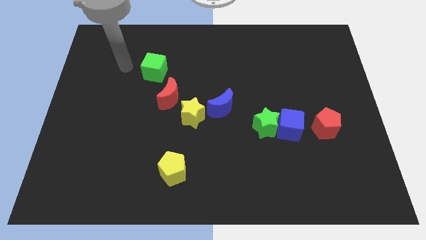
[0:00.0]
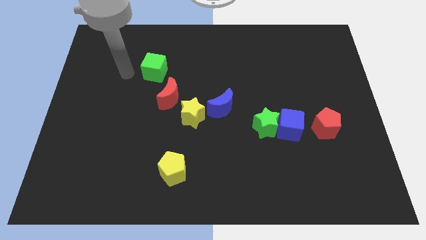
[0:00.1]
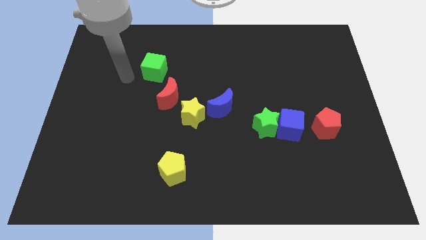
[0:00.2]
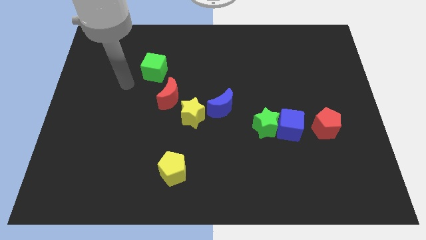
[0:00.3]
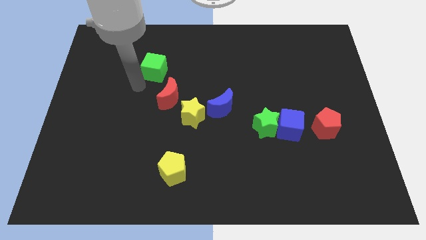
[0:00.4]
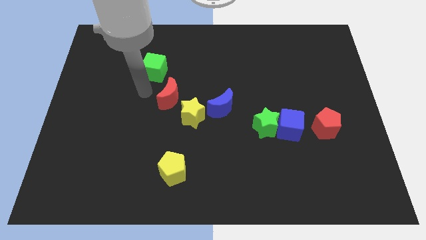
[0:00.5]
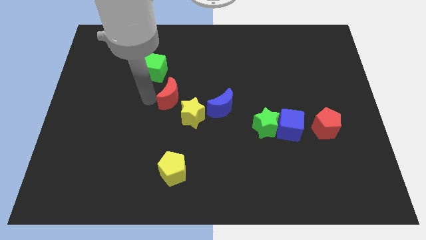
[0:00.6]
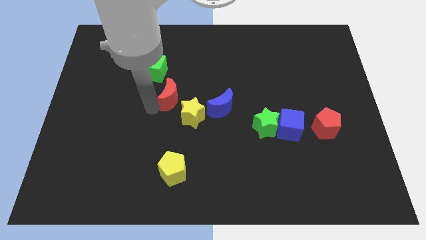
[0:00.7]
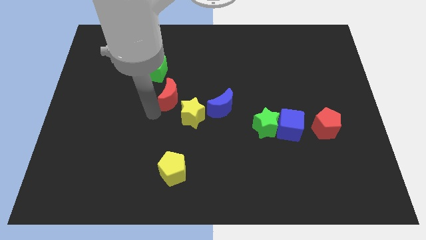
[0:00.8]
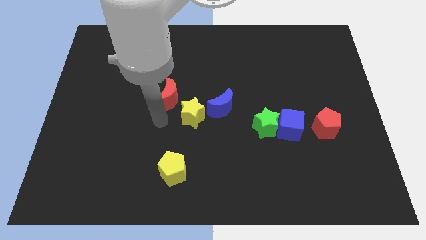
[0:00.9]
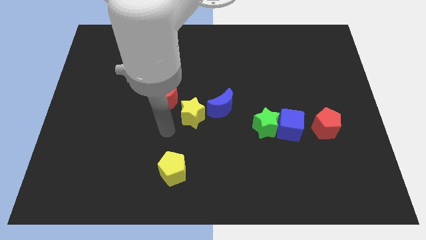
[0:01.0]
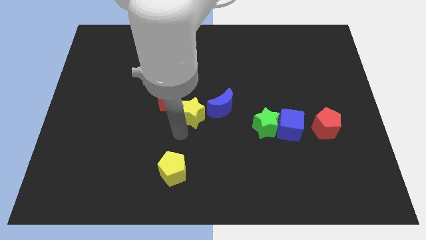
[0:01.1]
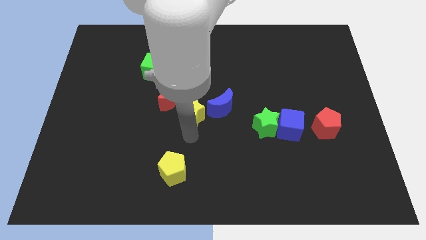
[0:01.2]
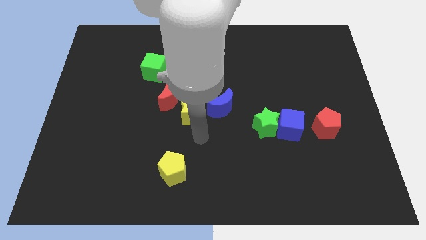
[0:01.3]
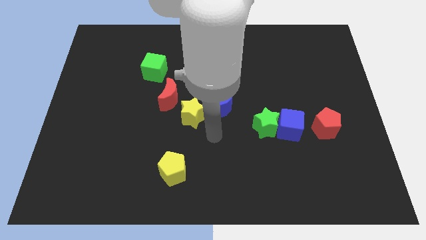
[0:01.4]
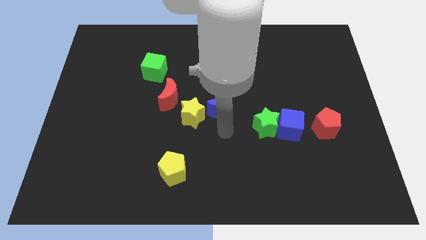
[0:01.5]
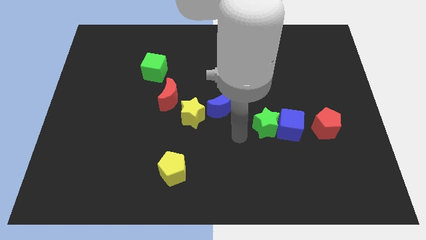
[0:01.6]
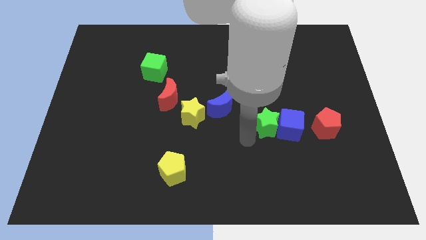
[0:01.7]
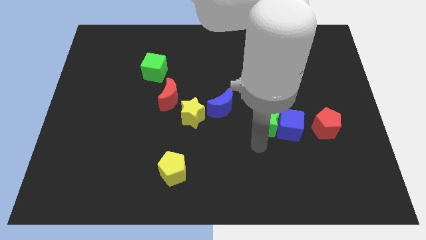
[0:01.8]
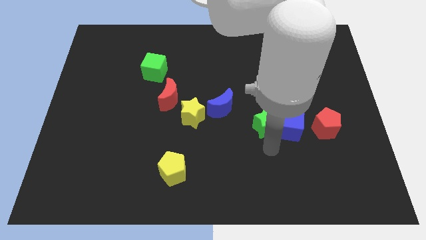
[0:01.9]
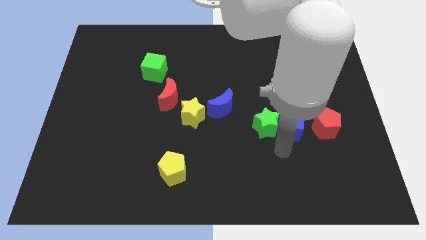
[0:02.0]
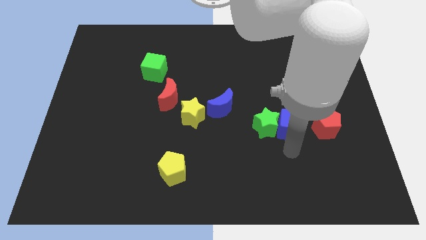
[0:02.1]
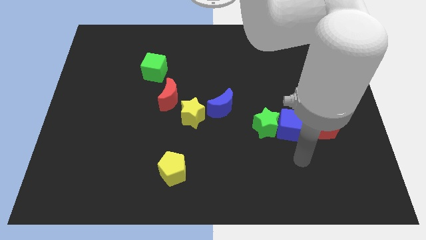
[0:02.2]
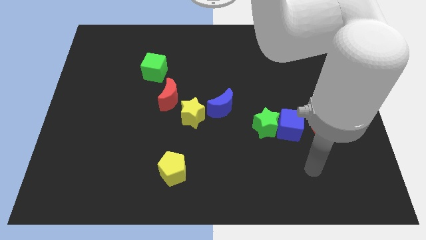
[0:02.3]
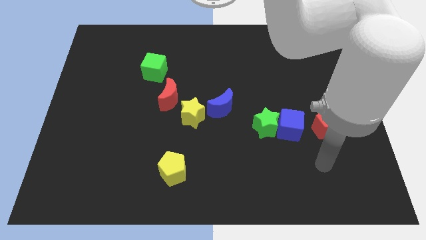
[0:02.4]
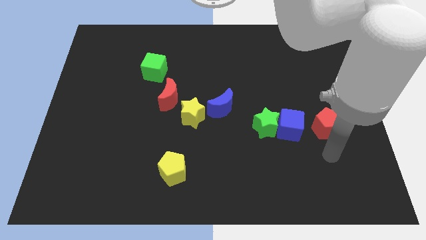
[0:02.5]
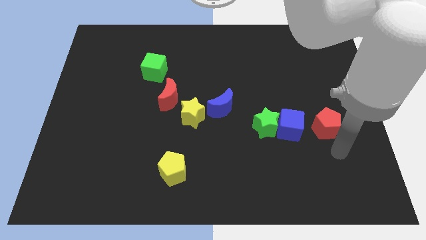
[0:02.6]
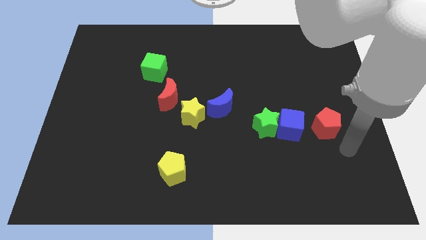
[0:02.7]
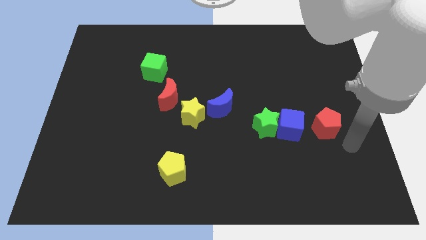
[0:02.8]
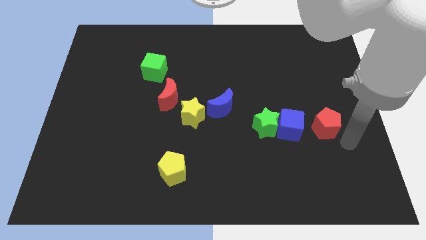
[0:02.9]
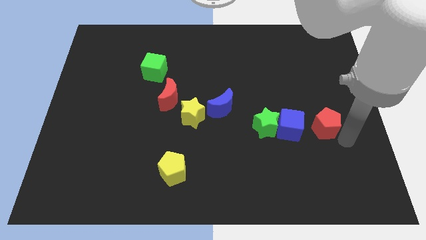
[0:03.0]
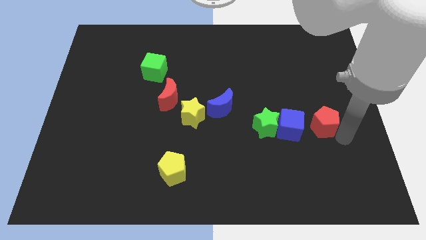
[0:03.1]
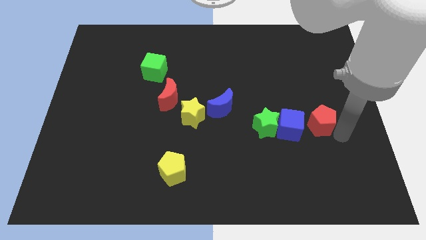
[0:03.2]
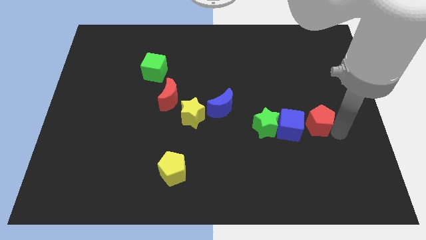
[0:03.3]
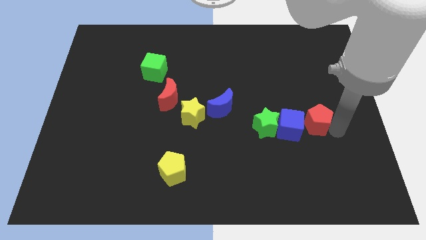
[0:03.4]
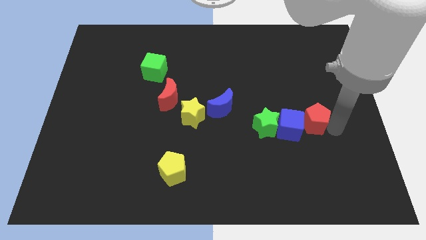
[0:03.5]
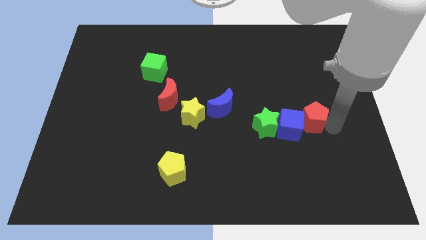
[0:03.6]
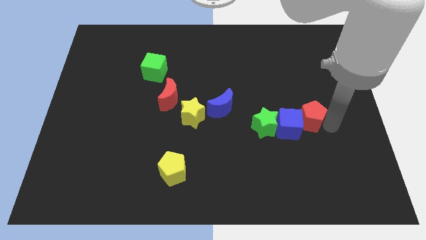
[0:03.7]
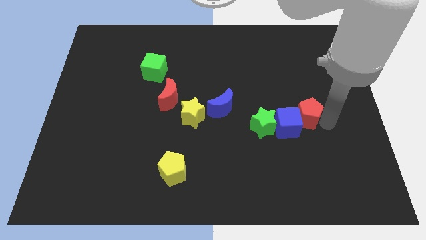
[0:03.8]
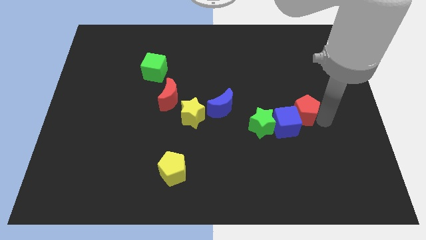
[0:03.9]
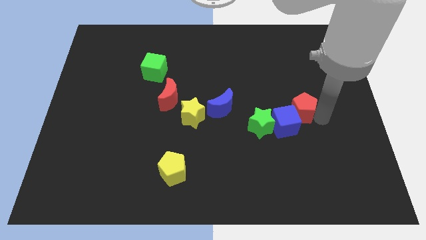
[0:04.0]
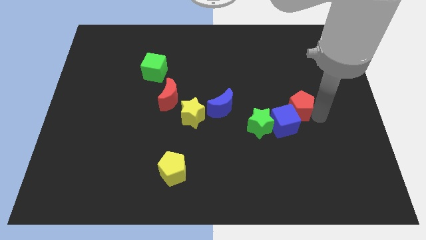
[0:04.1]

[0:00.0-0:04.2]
slightly slide the red pentagon up and left diagonally

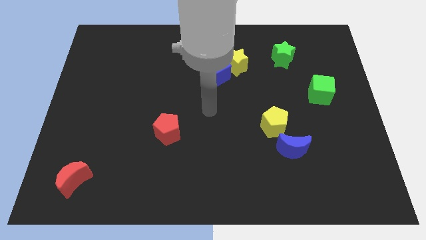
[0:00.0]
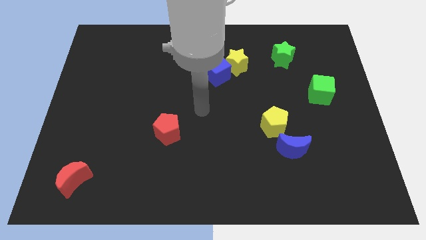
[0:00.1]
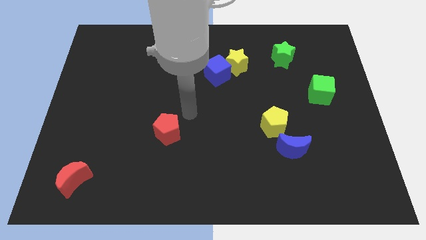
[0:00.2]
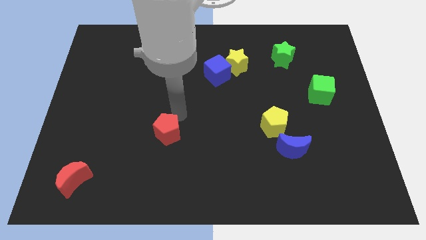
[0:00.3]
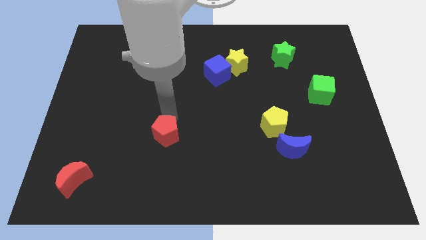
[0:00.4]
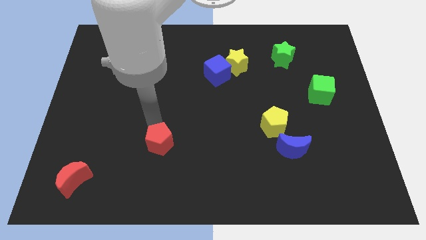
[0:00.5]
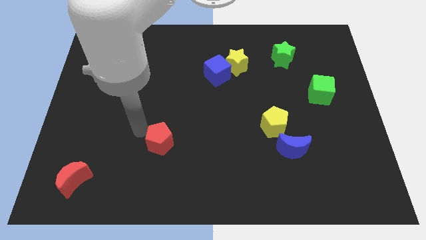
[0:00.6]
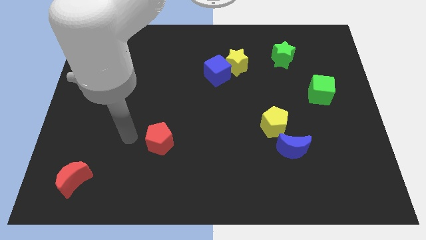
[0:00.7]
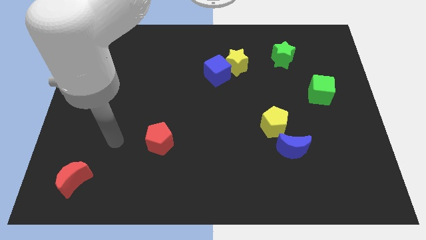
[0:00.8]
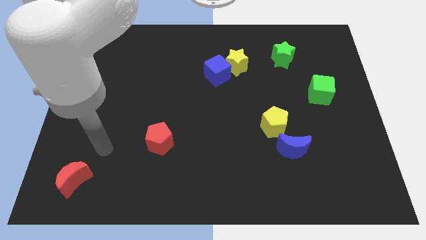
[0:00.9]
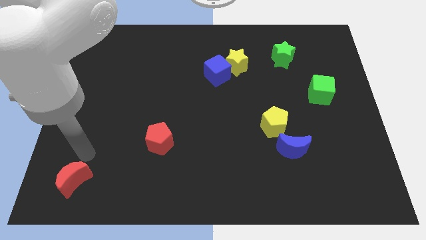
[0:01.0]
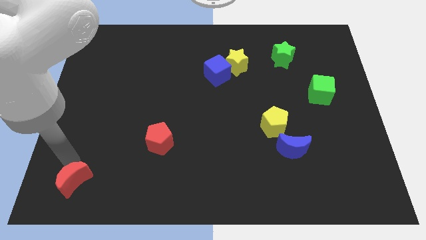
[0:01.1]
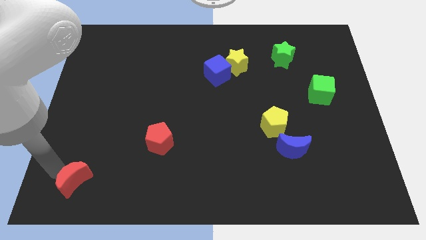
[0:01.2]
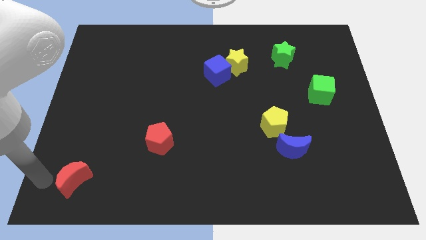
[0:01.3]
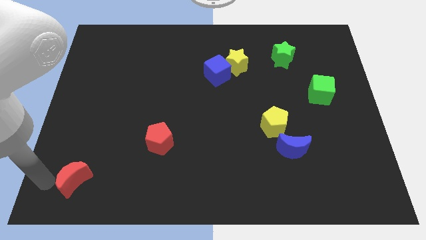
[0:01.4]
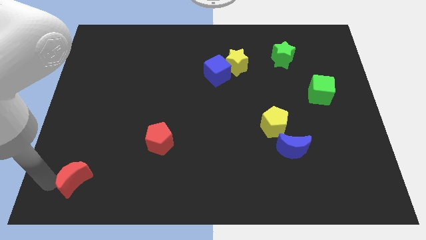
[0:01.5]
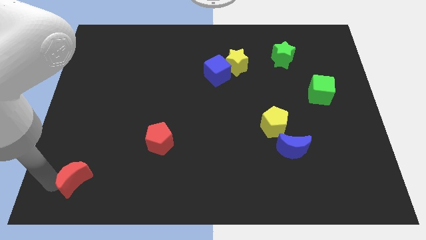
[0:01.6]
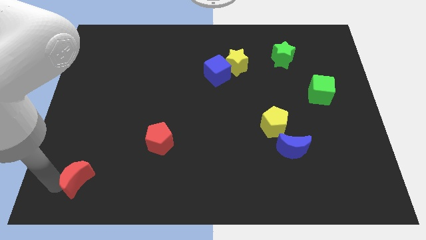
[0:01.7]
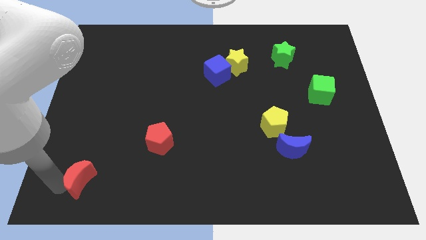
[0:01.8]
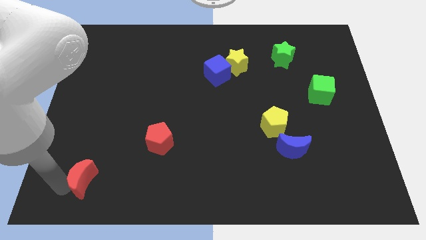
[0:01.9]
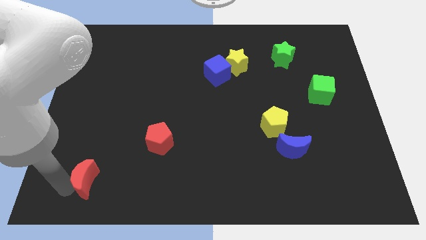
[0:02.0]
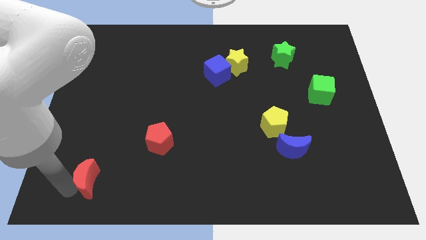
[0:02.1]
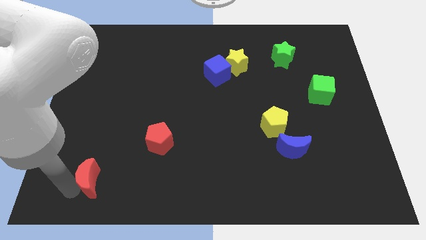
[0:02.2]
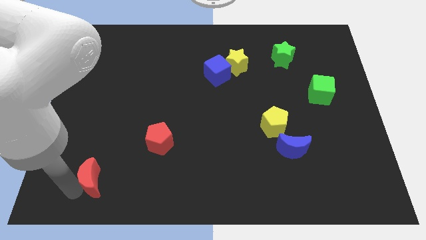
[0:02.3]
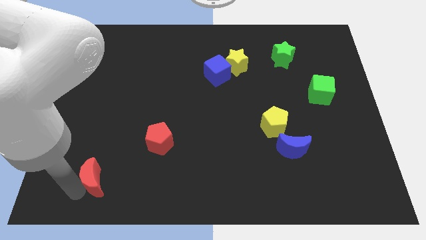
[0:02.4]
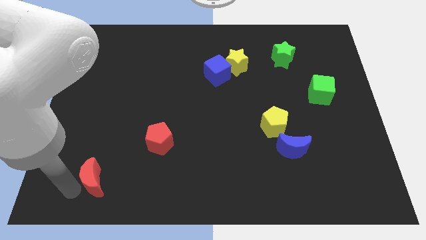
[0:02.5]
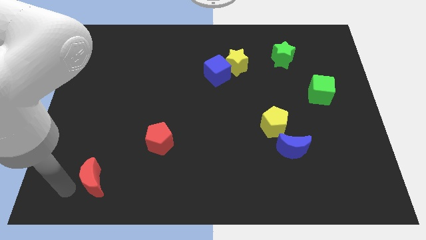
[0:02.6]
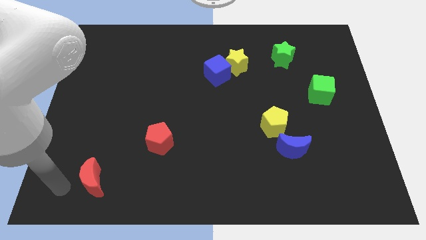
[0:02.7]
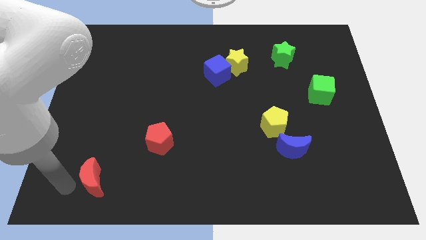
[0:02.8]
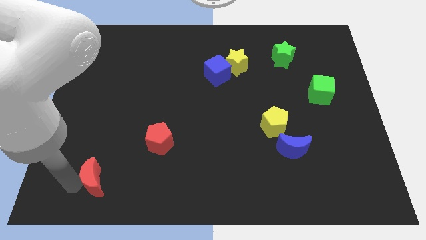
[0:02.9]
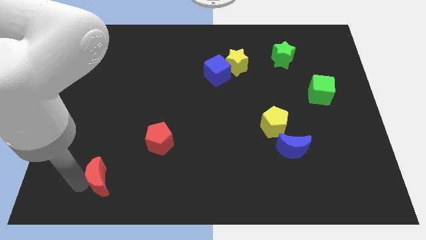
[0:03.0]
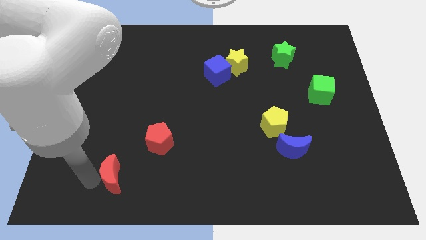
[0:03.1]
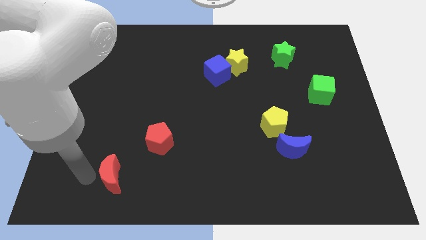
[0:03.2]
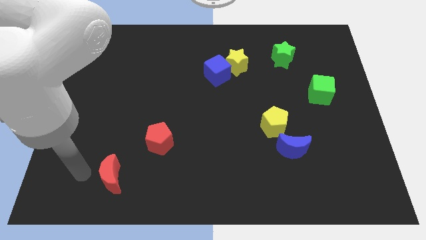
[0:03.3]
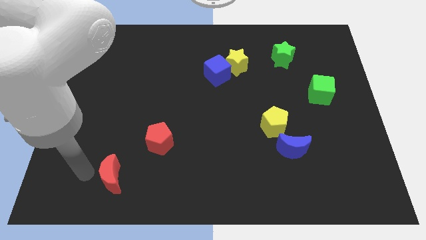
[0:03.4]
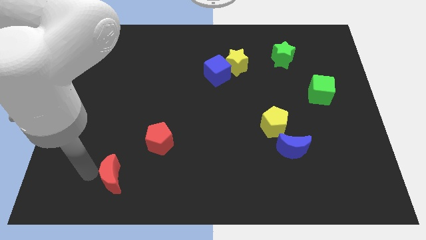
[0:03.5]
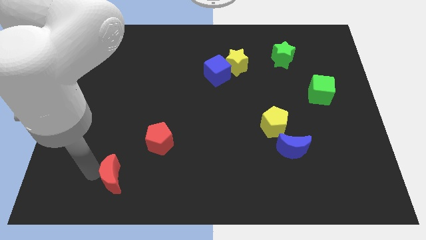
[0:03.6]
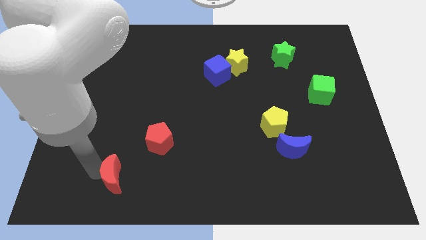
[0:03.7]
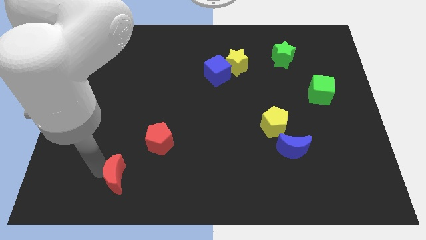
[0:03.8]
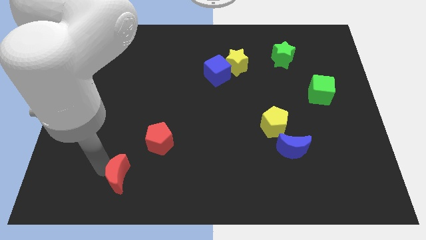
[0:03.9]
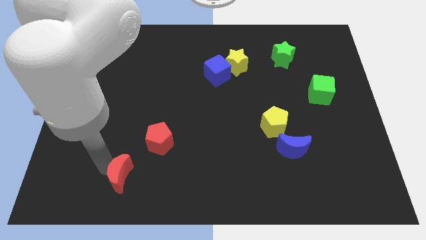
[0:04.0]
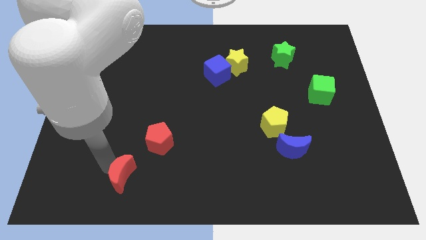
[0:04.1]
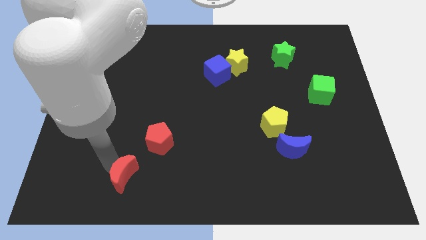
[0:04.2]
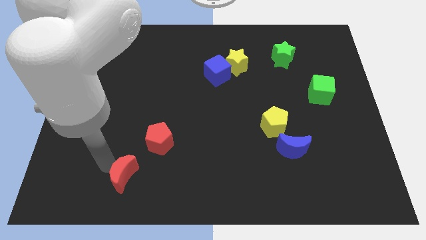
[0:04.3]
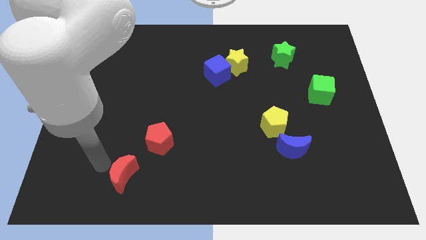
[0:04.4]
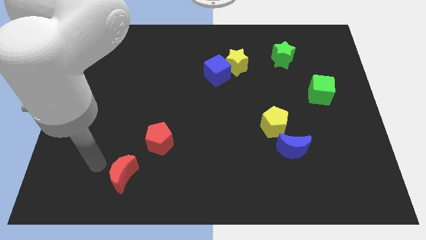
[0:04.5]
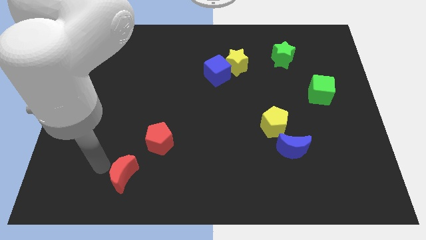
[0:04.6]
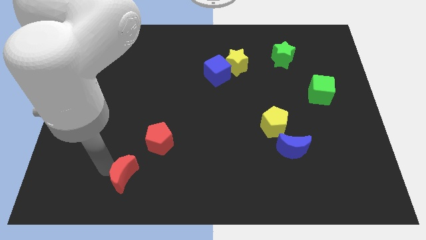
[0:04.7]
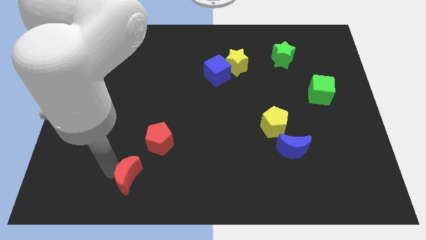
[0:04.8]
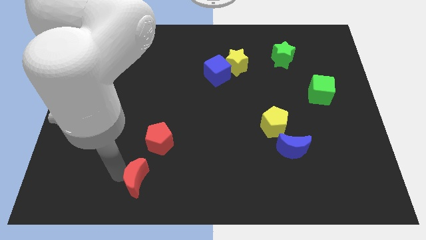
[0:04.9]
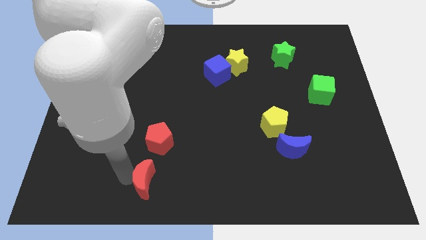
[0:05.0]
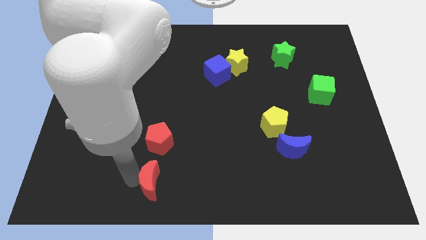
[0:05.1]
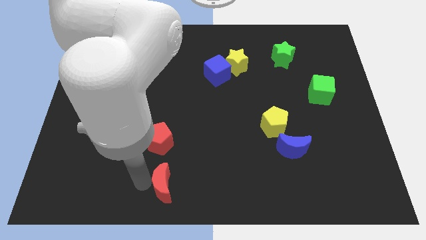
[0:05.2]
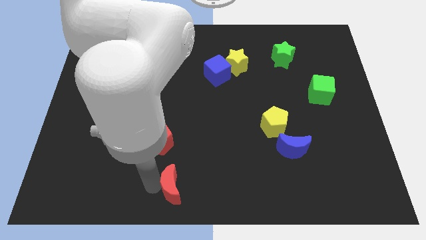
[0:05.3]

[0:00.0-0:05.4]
move the red moon to the right
